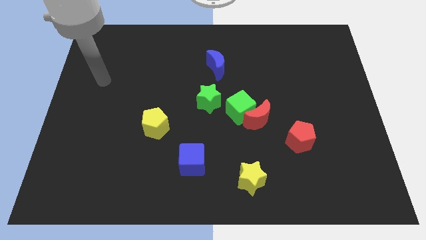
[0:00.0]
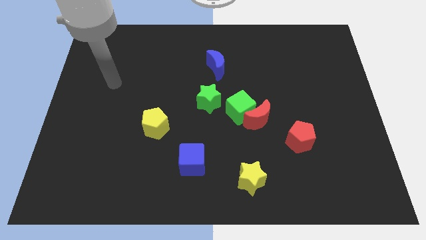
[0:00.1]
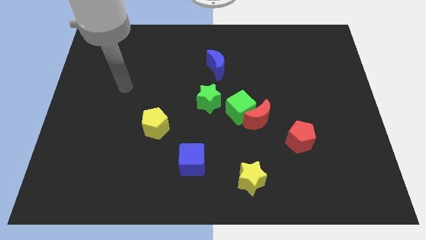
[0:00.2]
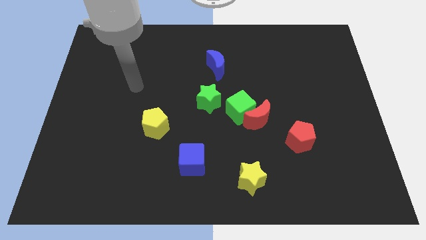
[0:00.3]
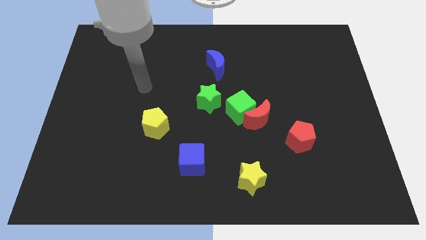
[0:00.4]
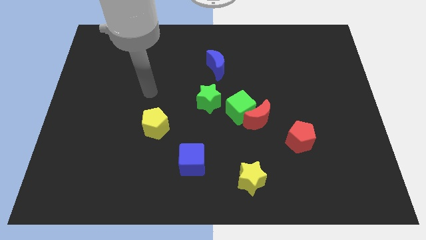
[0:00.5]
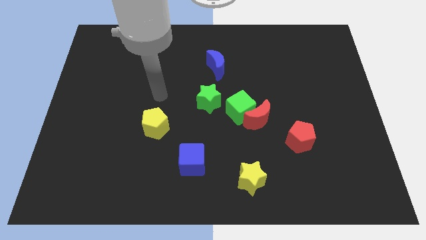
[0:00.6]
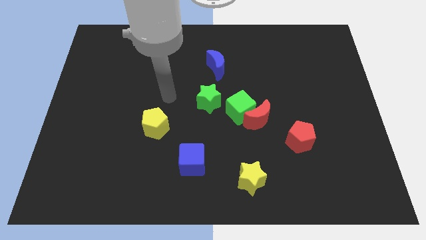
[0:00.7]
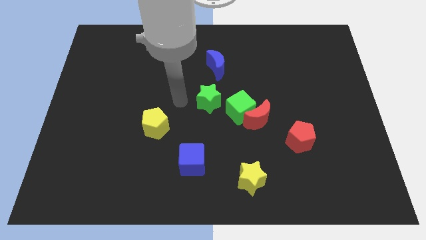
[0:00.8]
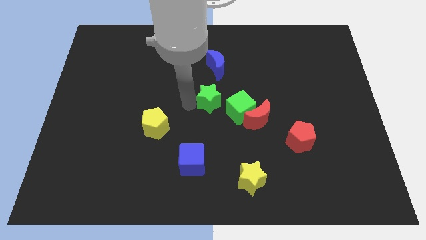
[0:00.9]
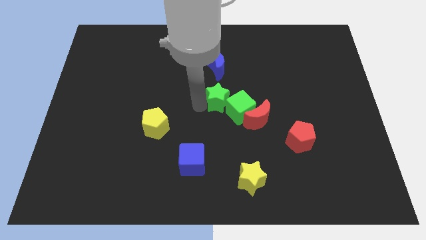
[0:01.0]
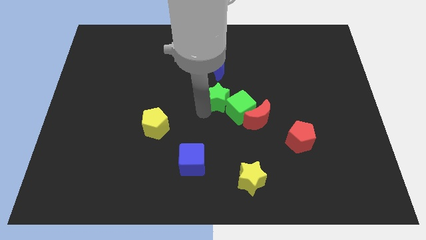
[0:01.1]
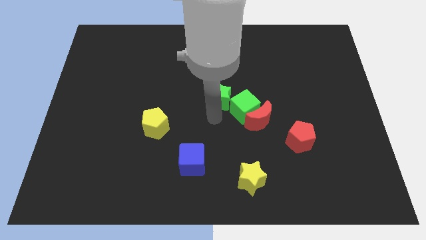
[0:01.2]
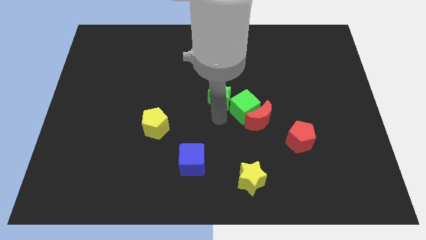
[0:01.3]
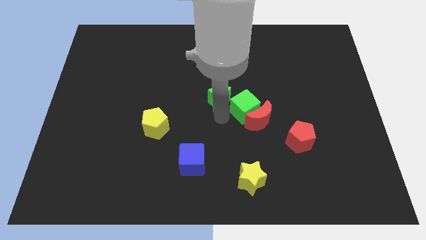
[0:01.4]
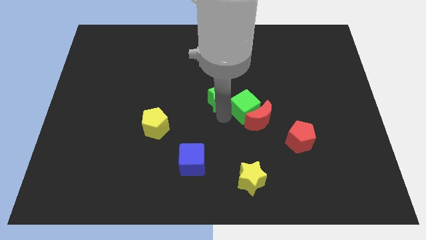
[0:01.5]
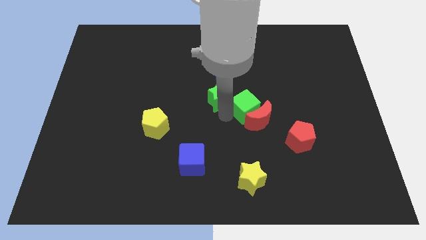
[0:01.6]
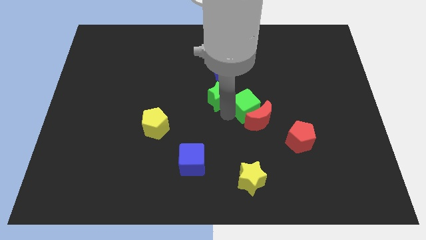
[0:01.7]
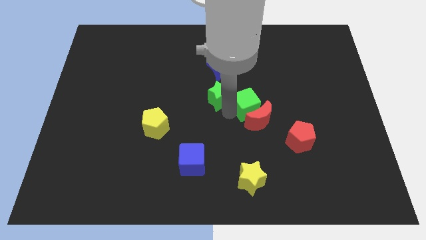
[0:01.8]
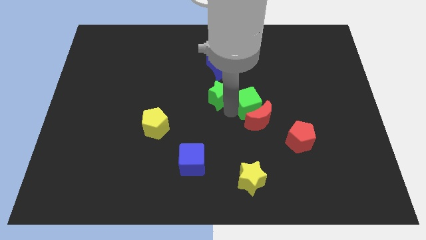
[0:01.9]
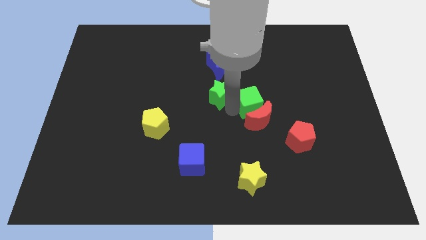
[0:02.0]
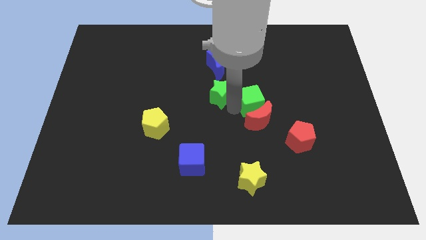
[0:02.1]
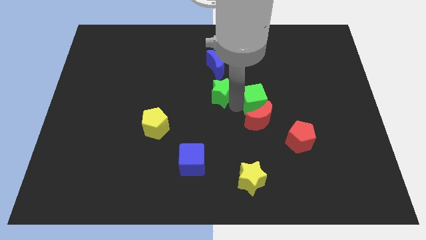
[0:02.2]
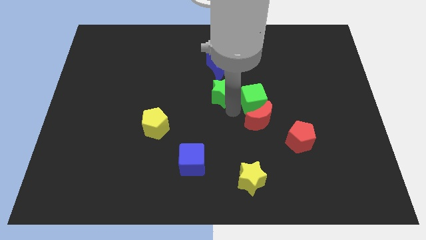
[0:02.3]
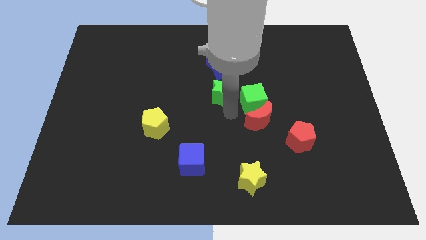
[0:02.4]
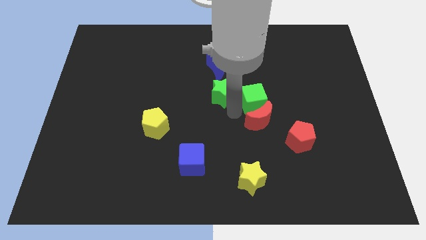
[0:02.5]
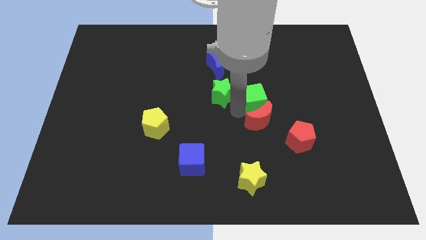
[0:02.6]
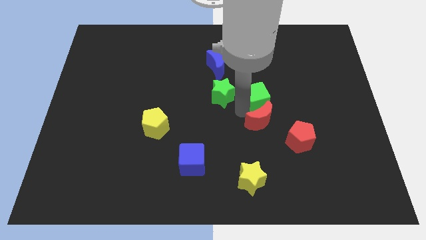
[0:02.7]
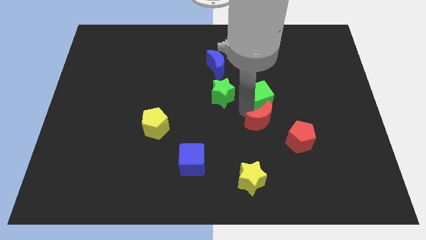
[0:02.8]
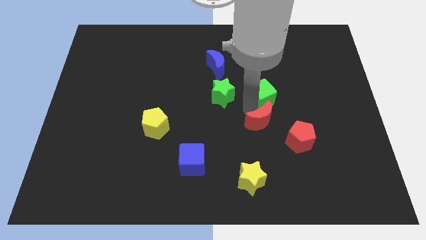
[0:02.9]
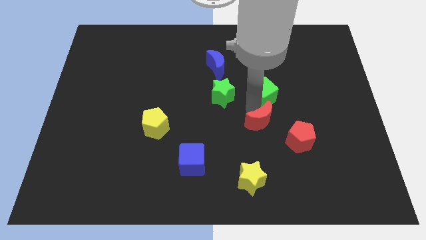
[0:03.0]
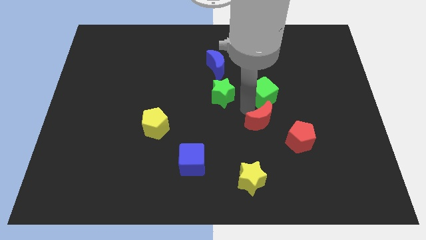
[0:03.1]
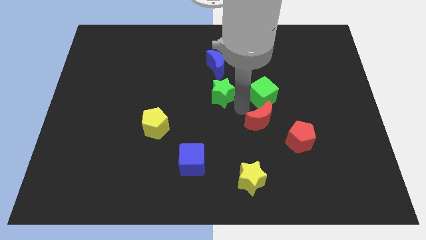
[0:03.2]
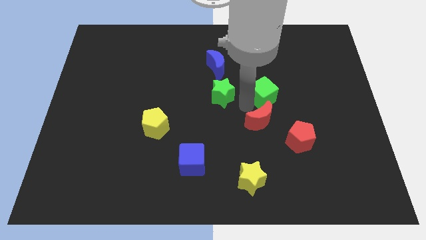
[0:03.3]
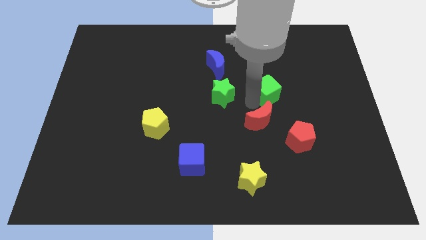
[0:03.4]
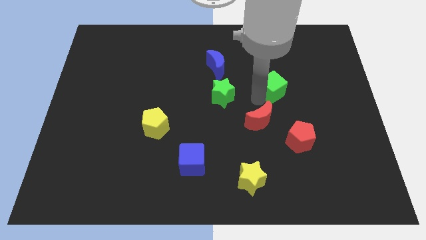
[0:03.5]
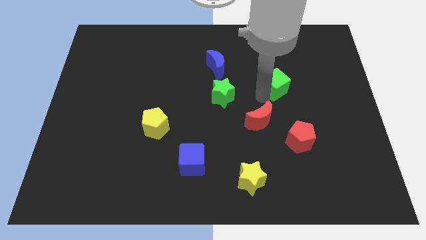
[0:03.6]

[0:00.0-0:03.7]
pull the green cube apart from the red moon and green star

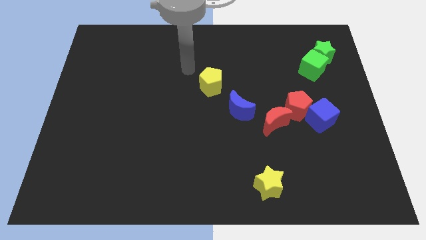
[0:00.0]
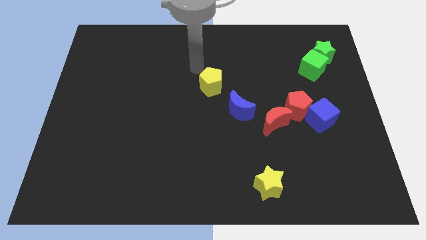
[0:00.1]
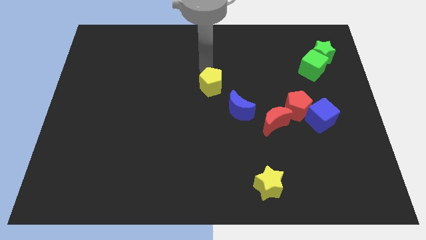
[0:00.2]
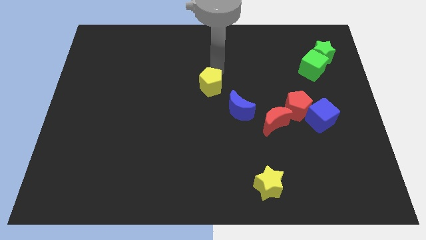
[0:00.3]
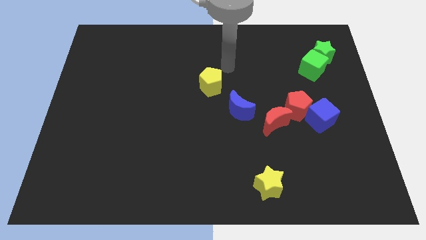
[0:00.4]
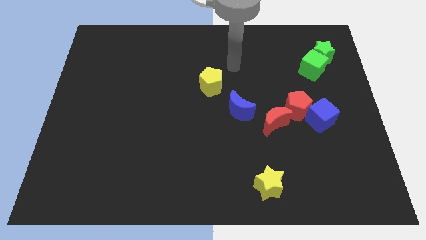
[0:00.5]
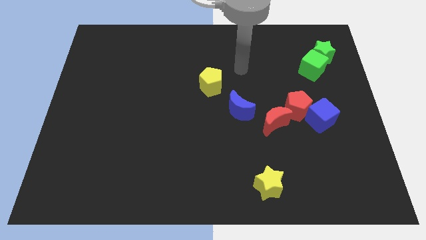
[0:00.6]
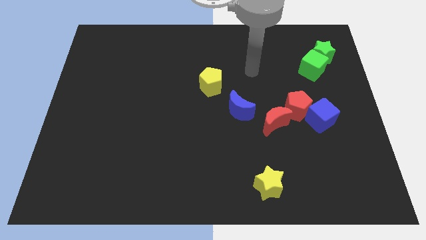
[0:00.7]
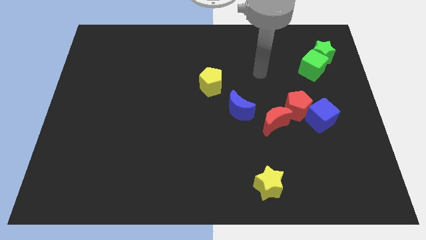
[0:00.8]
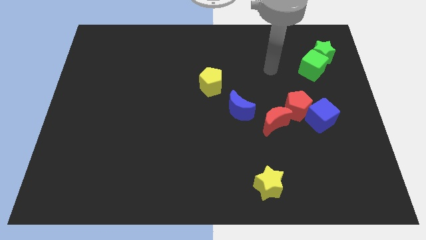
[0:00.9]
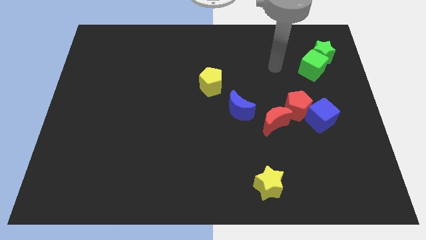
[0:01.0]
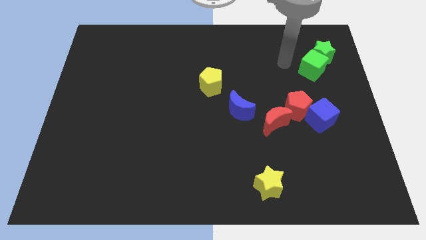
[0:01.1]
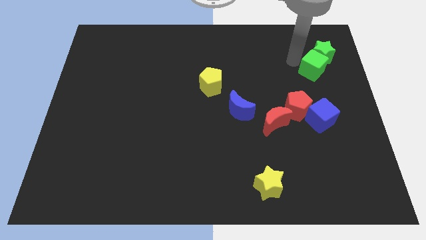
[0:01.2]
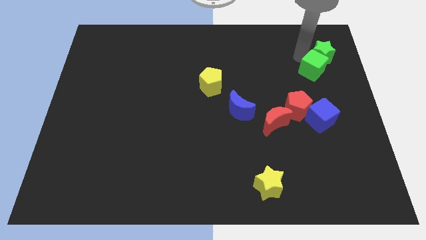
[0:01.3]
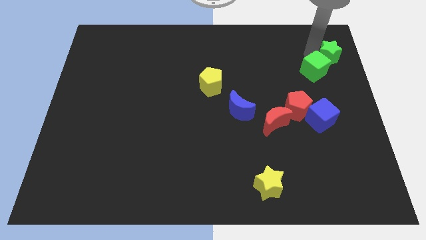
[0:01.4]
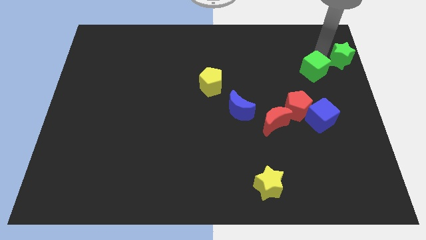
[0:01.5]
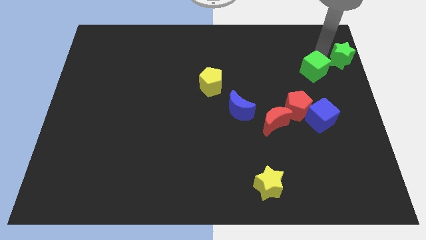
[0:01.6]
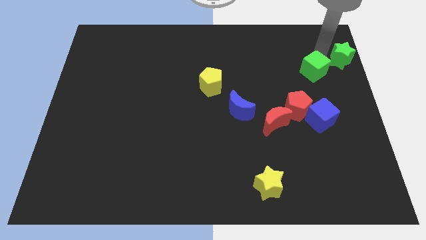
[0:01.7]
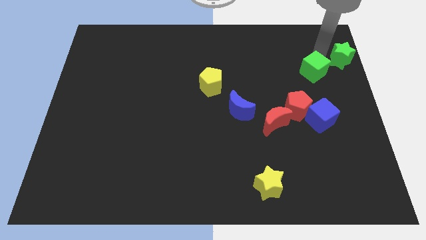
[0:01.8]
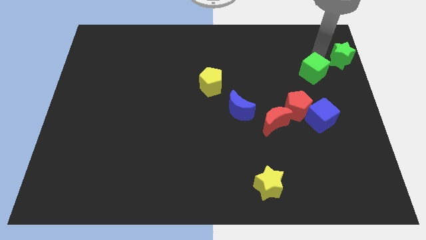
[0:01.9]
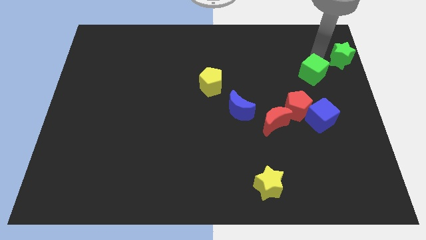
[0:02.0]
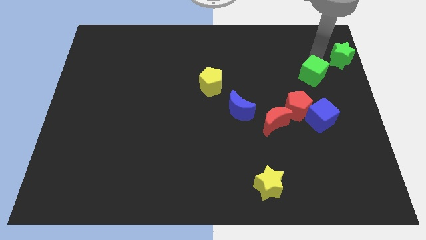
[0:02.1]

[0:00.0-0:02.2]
move the green cube away from the green star

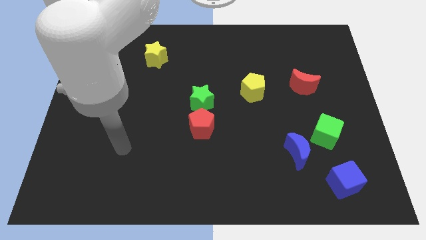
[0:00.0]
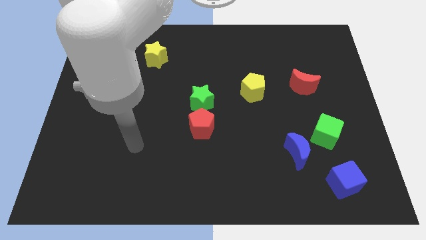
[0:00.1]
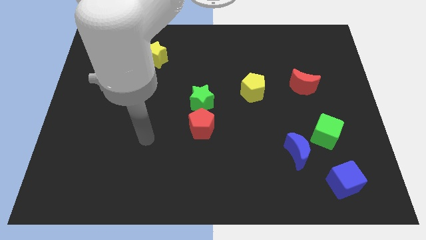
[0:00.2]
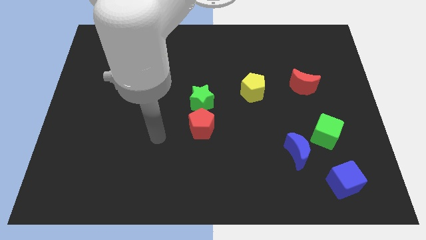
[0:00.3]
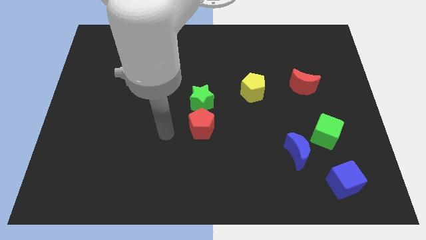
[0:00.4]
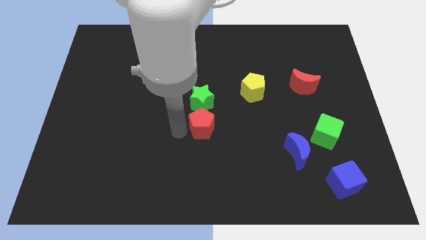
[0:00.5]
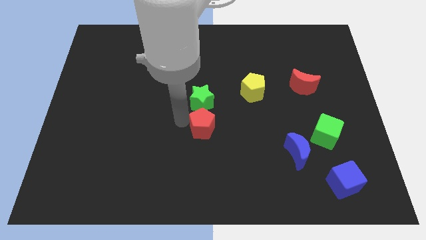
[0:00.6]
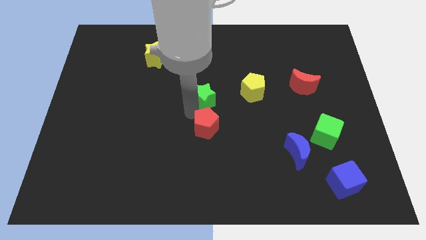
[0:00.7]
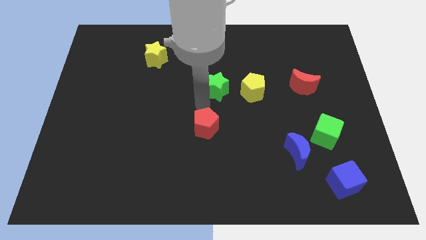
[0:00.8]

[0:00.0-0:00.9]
separate the red pentagon from the green star

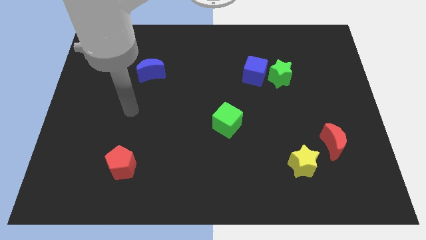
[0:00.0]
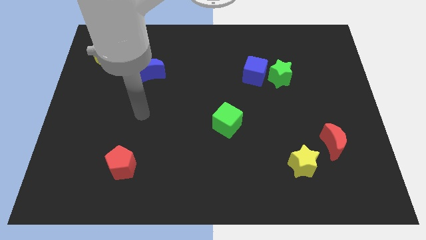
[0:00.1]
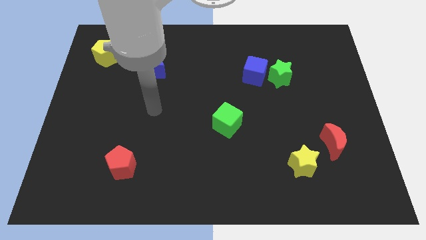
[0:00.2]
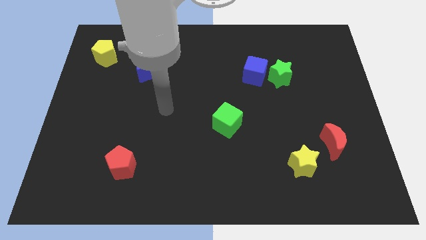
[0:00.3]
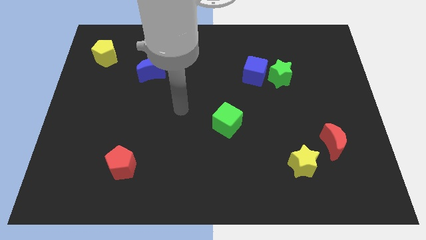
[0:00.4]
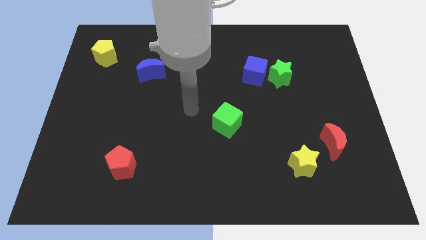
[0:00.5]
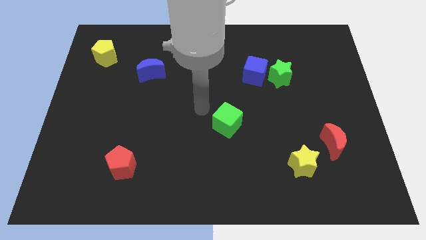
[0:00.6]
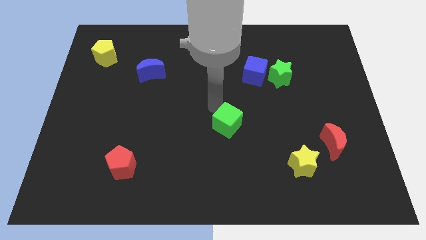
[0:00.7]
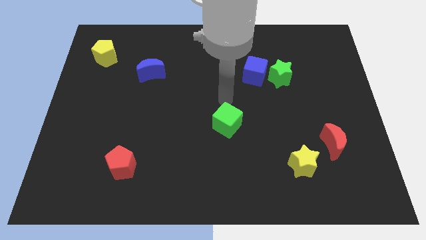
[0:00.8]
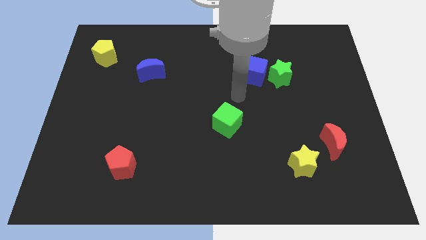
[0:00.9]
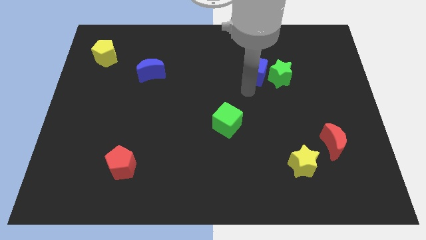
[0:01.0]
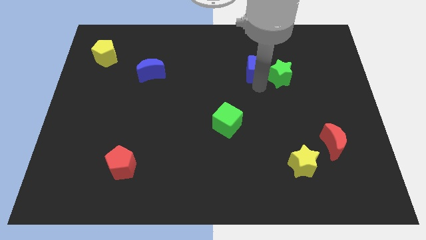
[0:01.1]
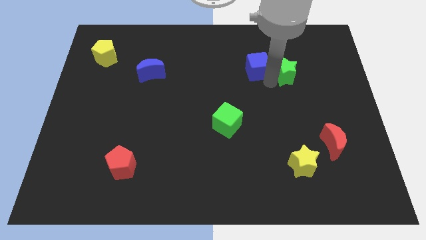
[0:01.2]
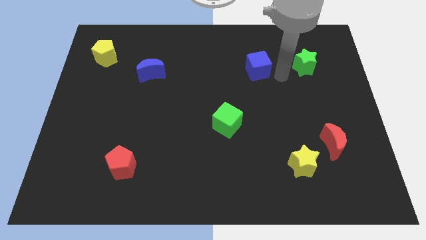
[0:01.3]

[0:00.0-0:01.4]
separate the blue cube from the green star

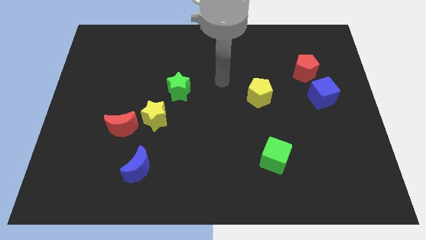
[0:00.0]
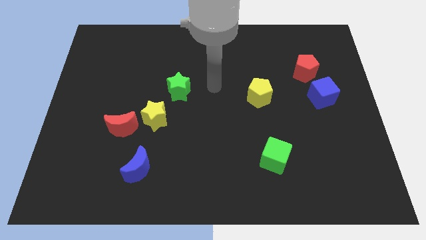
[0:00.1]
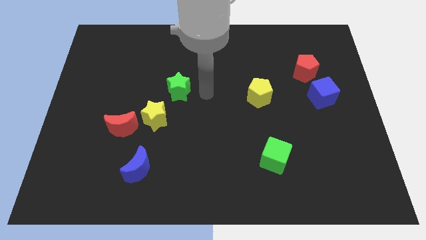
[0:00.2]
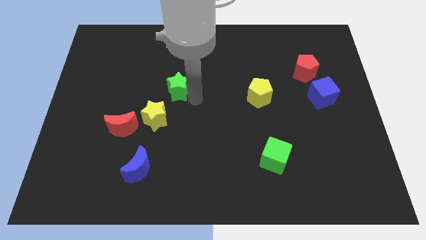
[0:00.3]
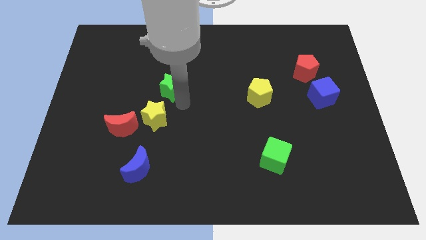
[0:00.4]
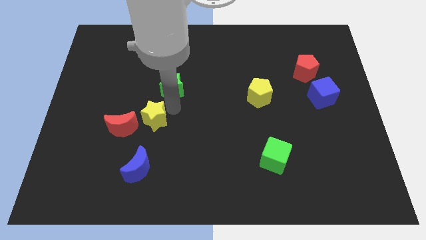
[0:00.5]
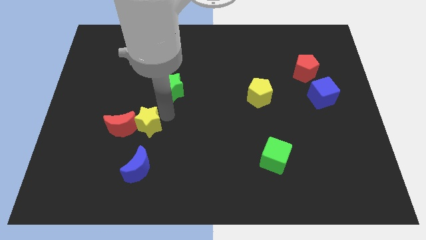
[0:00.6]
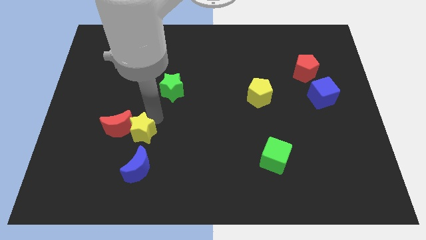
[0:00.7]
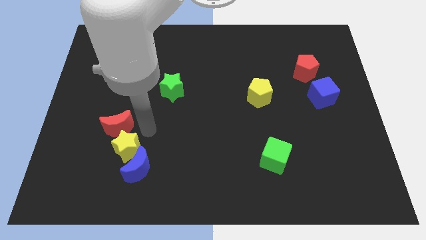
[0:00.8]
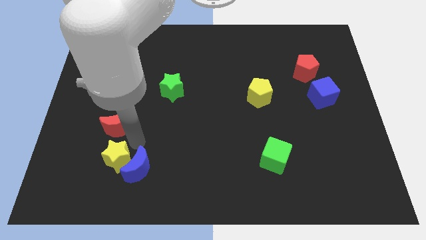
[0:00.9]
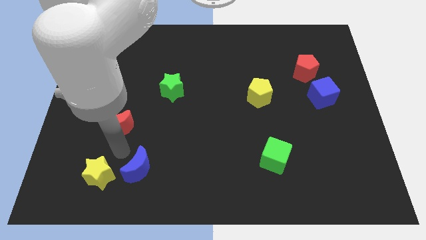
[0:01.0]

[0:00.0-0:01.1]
pull the red moon apart from the yellow star
